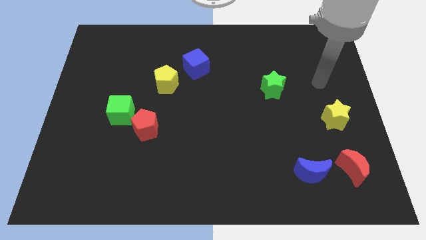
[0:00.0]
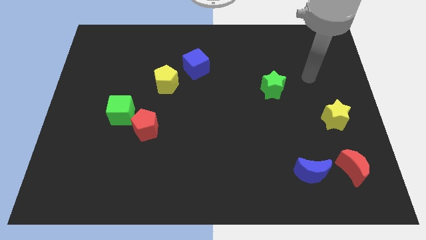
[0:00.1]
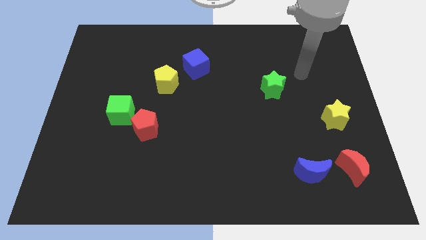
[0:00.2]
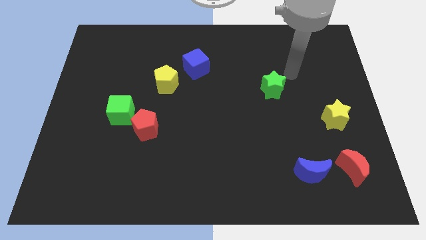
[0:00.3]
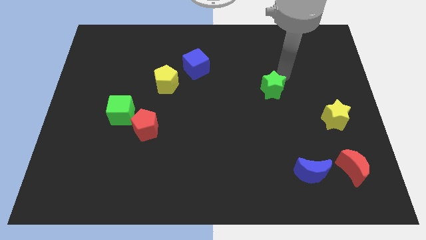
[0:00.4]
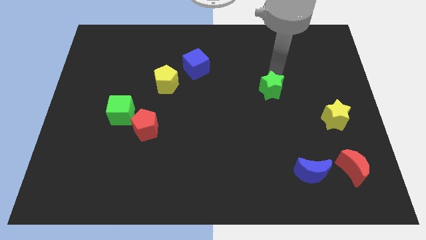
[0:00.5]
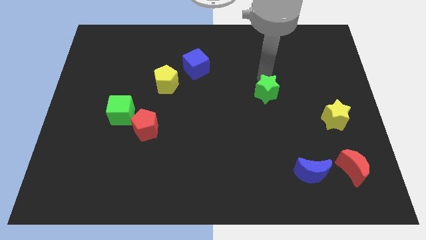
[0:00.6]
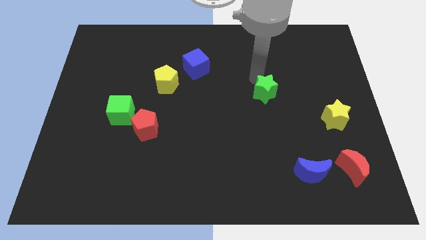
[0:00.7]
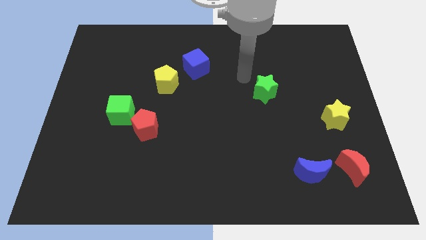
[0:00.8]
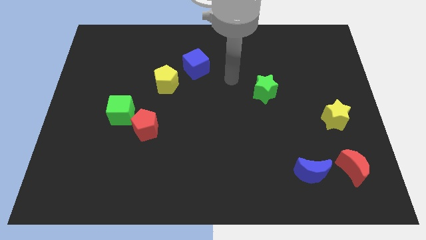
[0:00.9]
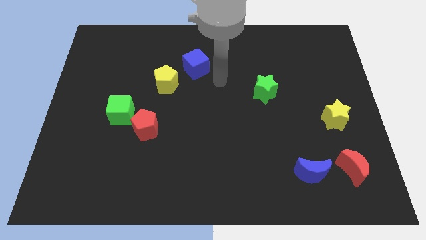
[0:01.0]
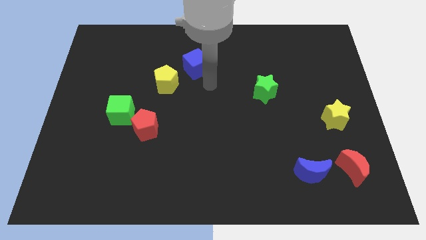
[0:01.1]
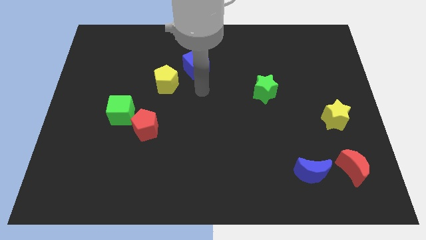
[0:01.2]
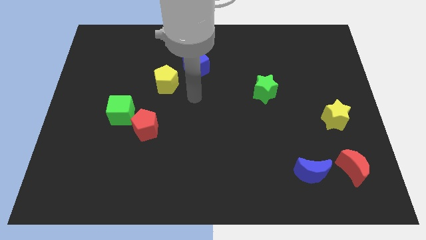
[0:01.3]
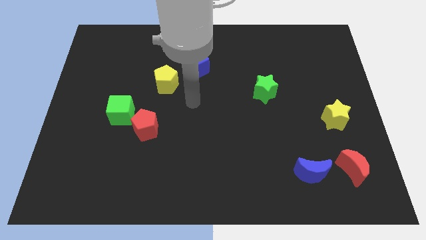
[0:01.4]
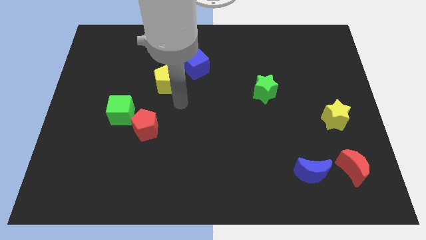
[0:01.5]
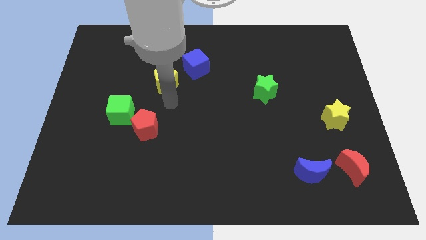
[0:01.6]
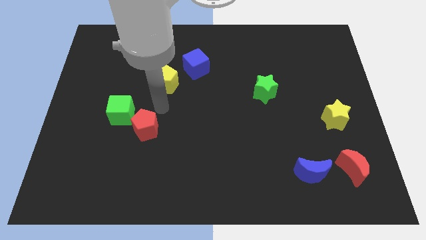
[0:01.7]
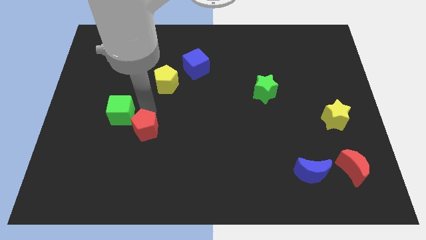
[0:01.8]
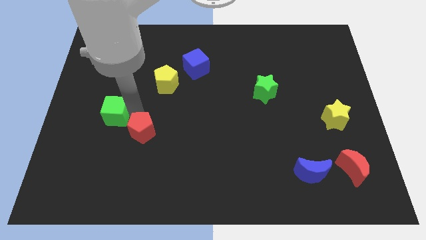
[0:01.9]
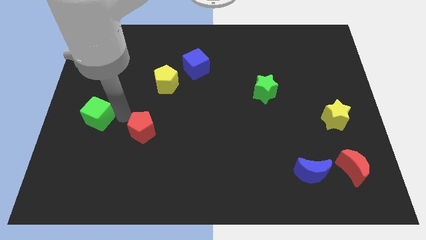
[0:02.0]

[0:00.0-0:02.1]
move the red pentagon away from the green cube

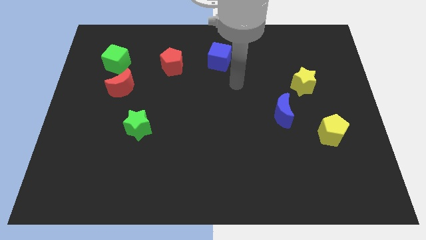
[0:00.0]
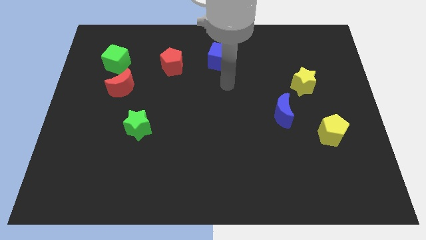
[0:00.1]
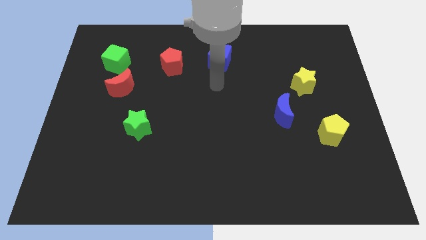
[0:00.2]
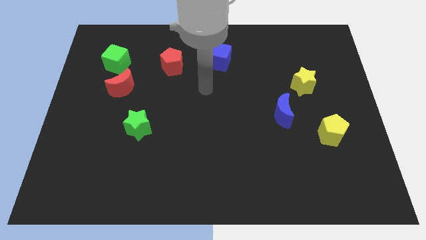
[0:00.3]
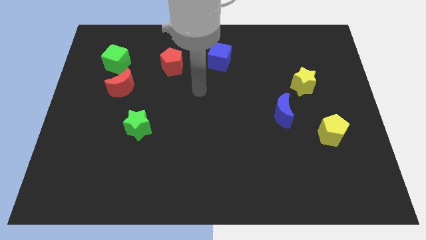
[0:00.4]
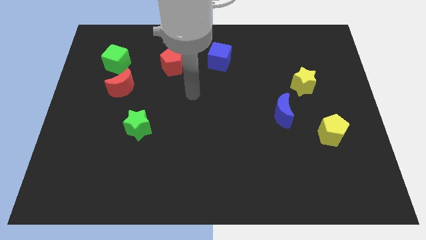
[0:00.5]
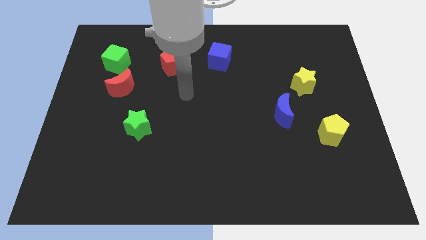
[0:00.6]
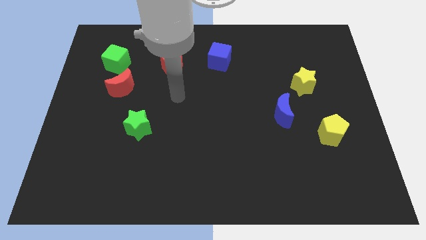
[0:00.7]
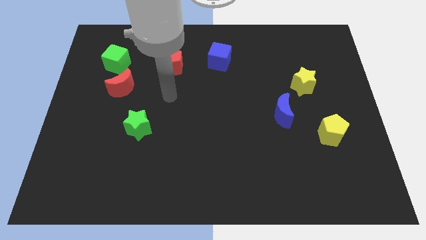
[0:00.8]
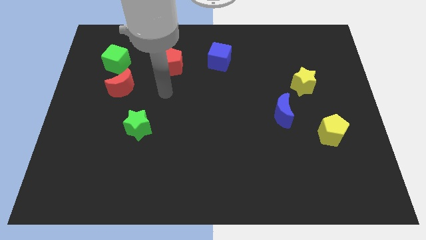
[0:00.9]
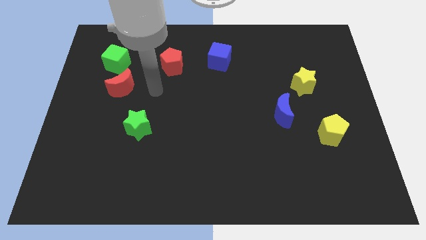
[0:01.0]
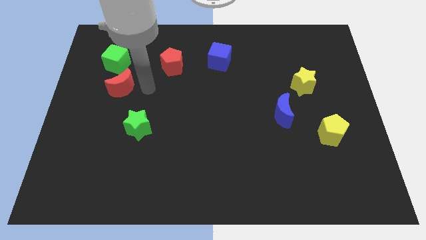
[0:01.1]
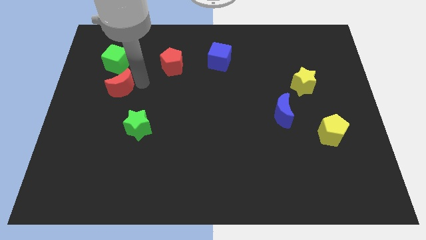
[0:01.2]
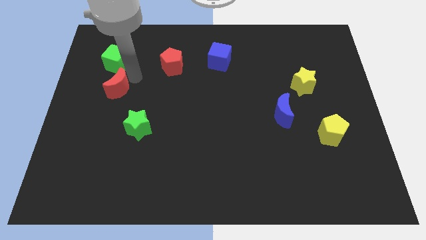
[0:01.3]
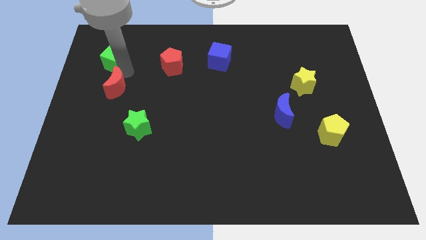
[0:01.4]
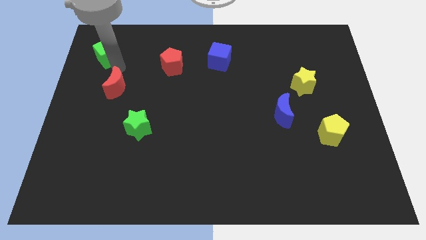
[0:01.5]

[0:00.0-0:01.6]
pull the red moon apart from the green cube

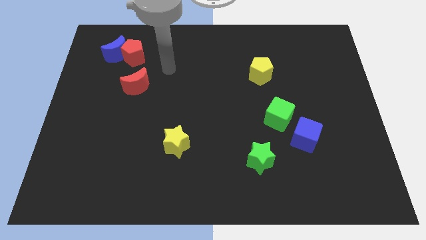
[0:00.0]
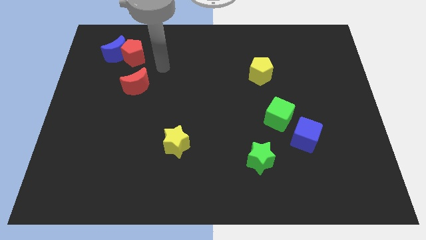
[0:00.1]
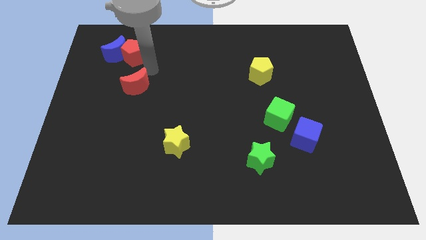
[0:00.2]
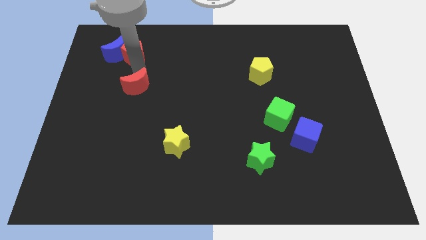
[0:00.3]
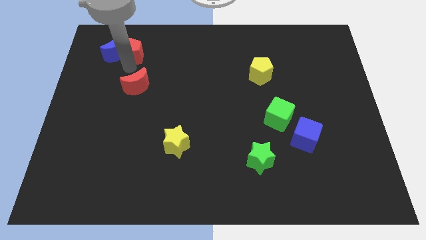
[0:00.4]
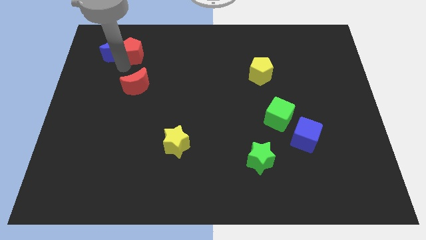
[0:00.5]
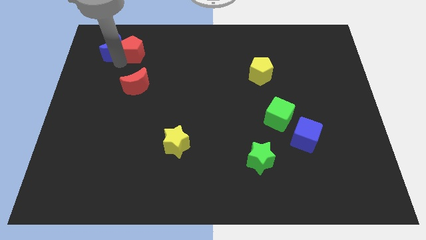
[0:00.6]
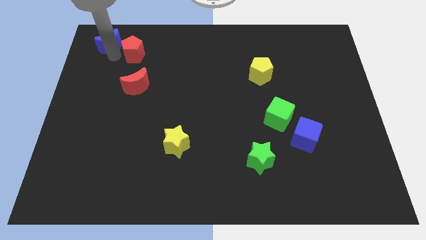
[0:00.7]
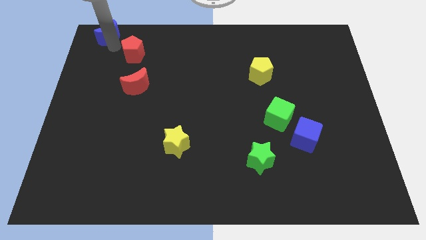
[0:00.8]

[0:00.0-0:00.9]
pull the red pentagon apart from the blue moon

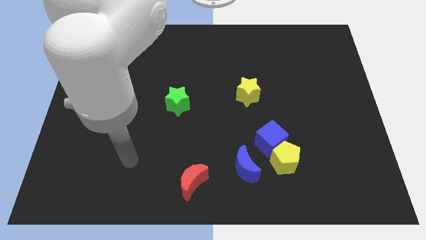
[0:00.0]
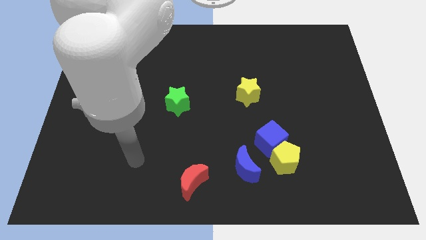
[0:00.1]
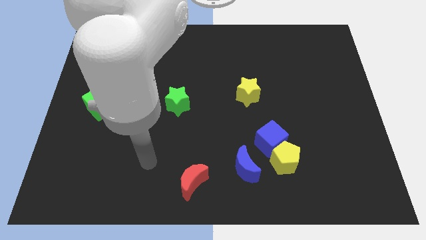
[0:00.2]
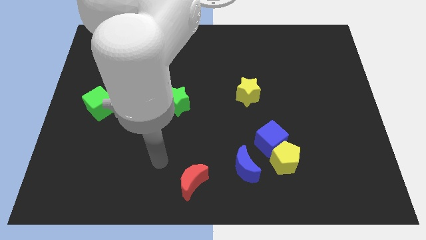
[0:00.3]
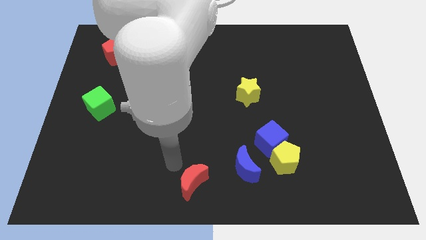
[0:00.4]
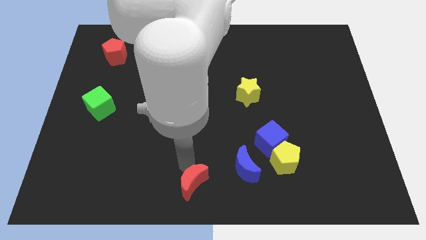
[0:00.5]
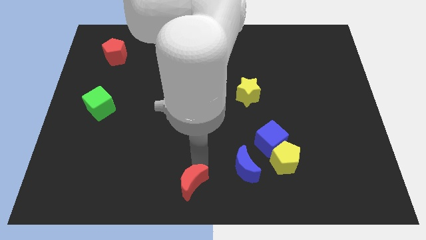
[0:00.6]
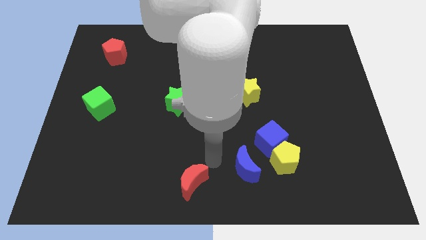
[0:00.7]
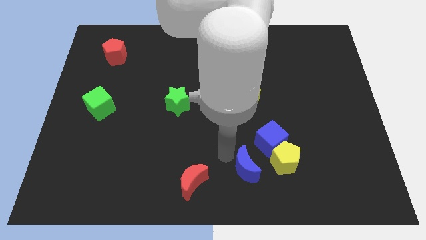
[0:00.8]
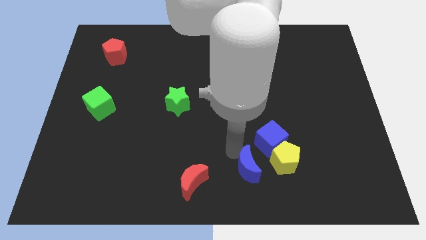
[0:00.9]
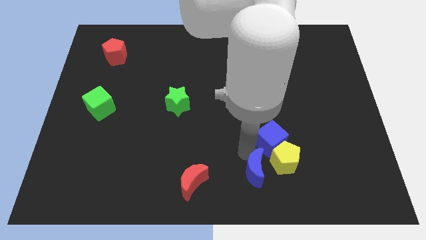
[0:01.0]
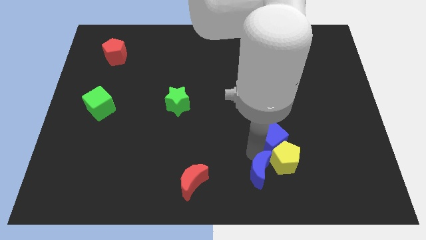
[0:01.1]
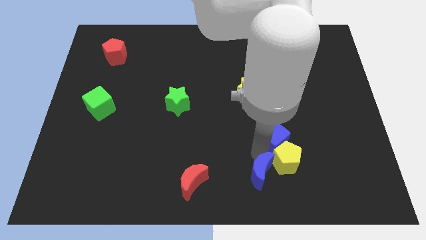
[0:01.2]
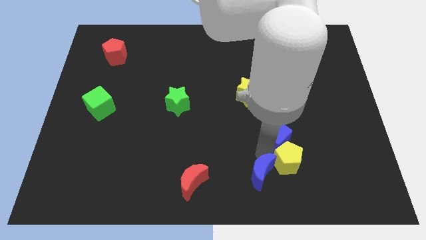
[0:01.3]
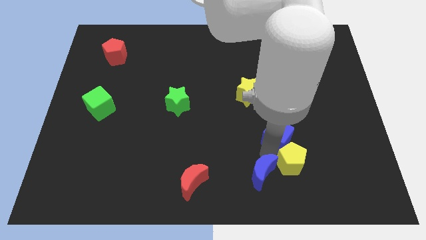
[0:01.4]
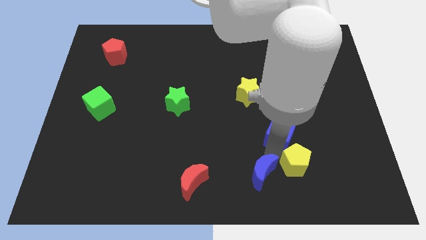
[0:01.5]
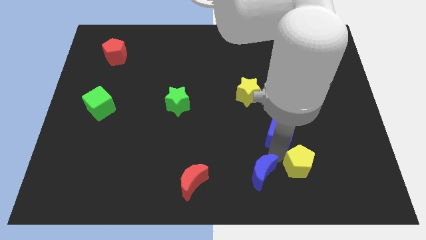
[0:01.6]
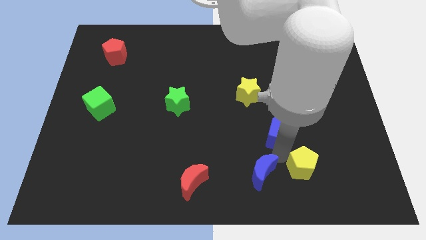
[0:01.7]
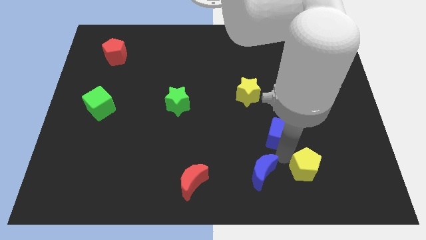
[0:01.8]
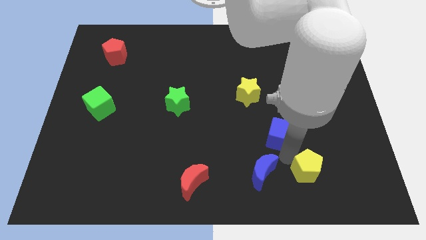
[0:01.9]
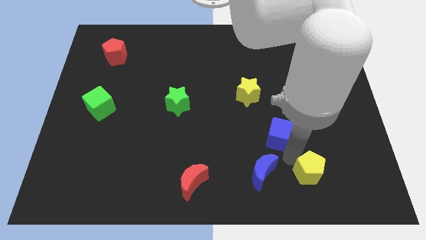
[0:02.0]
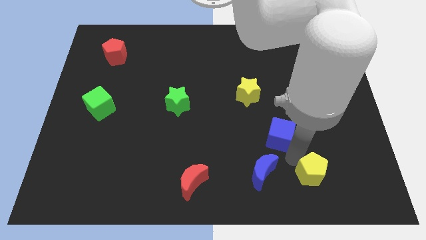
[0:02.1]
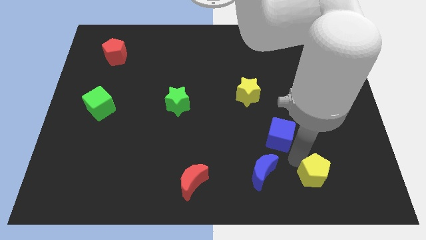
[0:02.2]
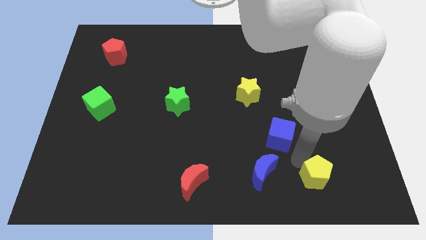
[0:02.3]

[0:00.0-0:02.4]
pull the yellow pentagon apart from the blue cube and blue moon

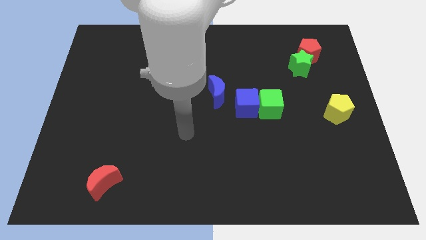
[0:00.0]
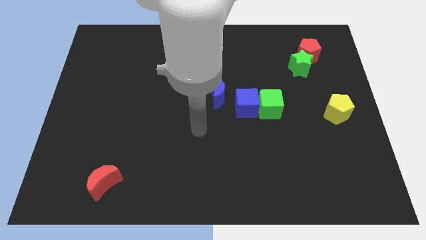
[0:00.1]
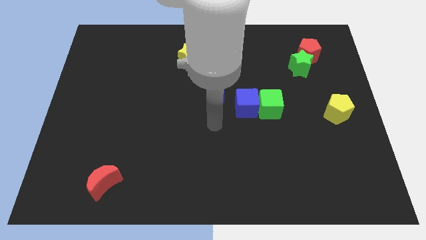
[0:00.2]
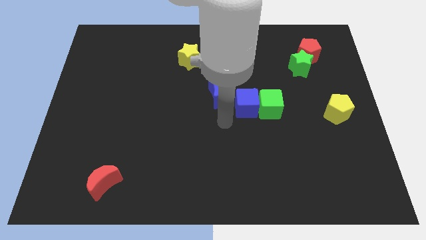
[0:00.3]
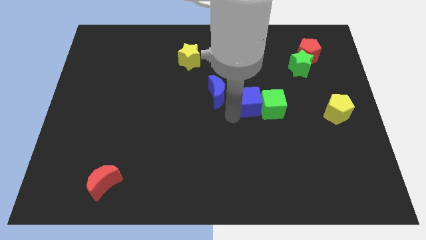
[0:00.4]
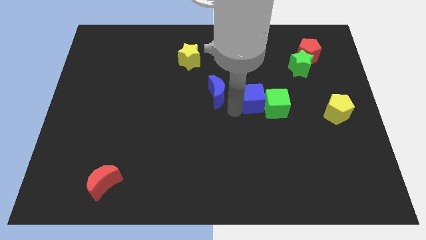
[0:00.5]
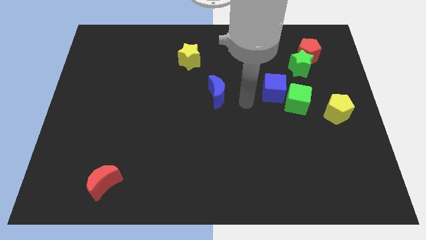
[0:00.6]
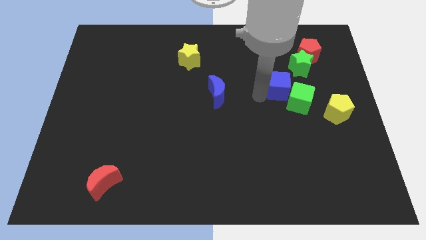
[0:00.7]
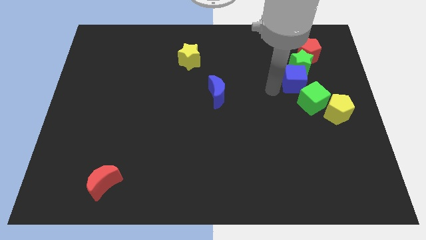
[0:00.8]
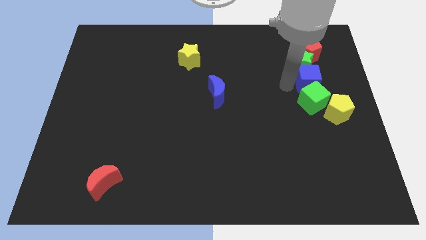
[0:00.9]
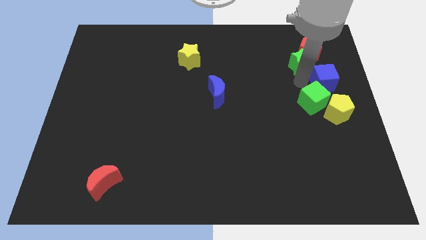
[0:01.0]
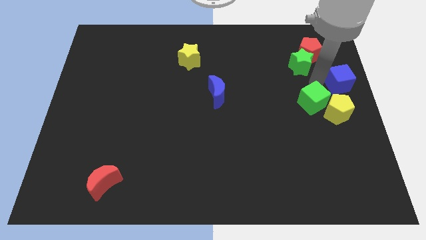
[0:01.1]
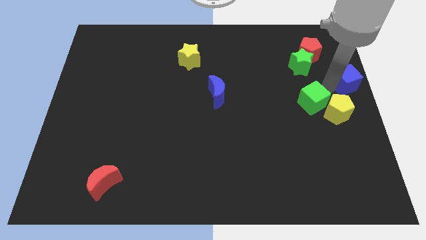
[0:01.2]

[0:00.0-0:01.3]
move the green cube away from the blue cube

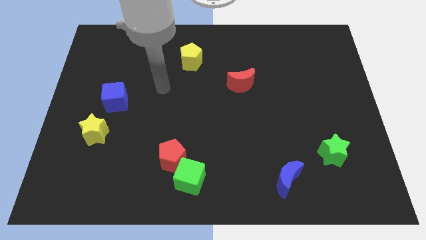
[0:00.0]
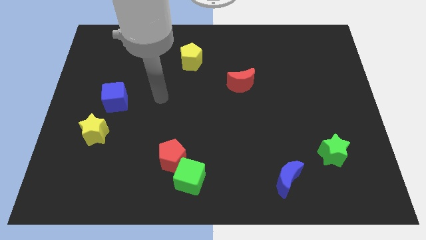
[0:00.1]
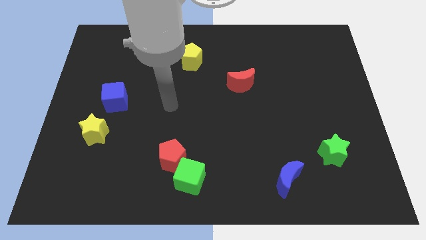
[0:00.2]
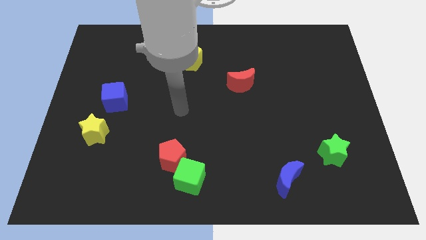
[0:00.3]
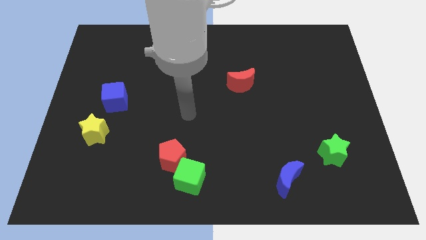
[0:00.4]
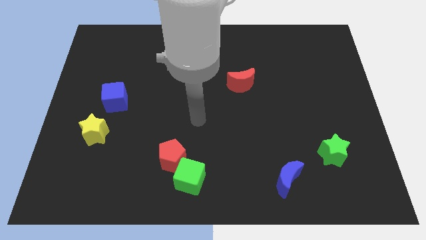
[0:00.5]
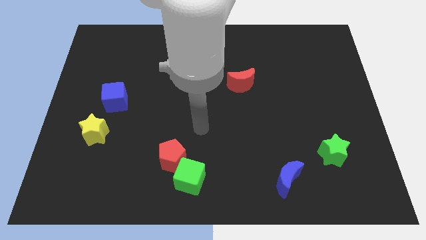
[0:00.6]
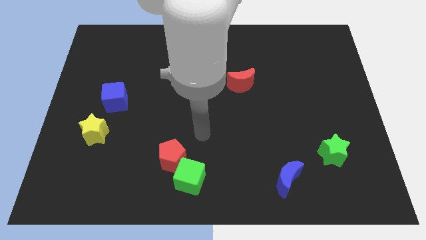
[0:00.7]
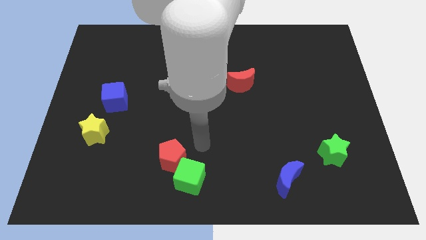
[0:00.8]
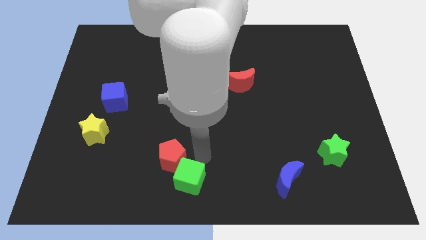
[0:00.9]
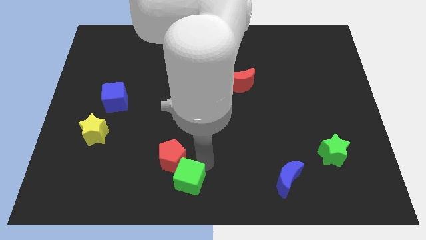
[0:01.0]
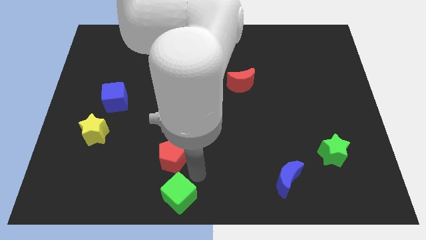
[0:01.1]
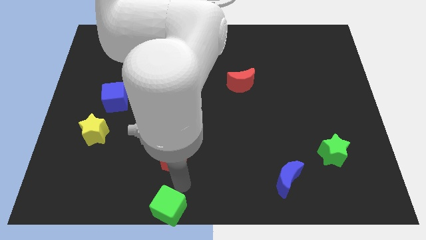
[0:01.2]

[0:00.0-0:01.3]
separate the red pentagon from the green cube
